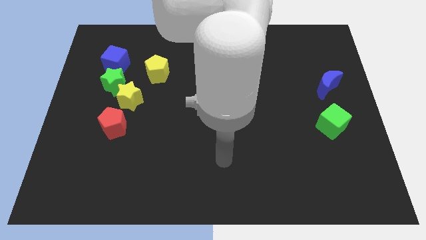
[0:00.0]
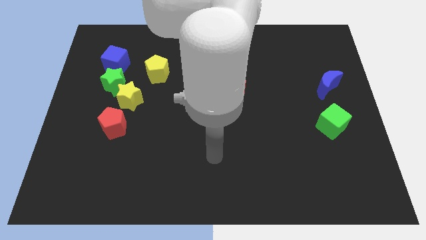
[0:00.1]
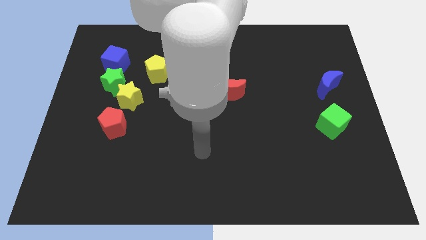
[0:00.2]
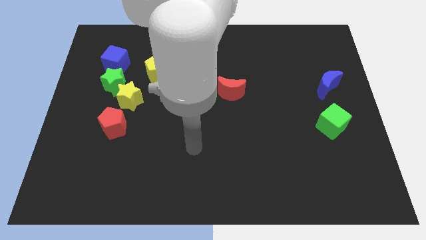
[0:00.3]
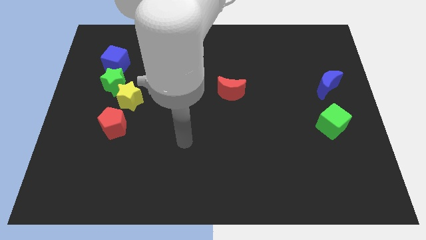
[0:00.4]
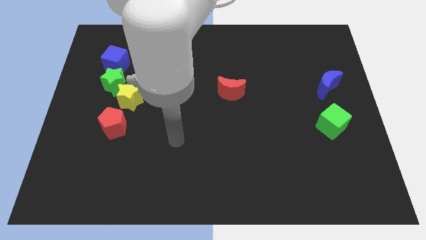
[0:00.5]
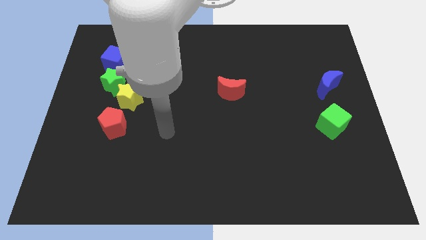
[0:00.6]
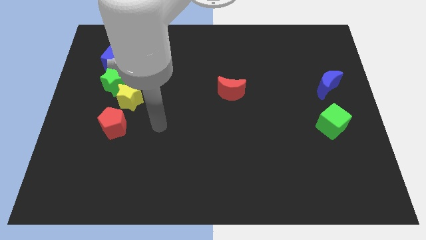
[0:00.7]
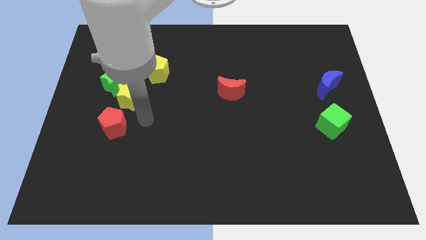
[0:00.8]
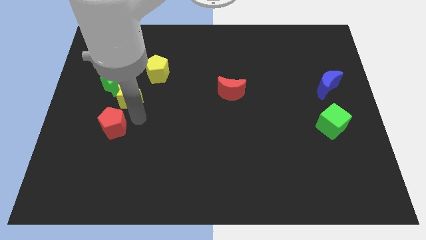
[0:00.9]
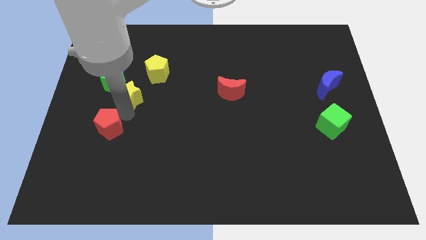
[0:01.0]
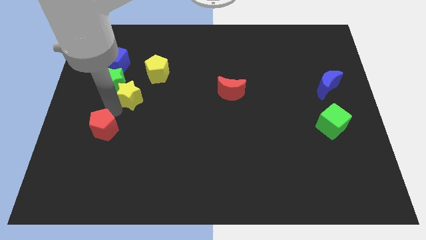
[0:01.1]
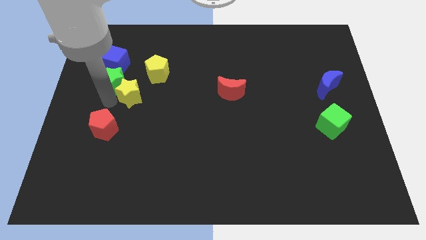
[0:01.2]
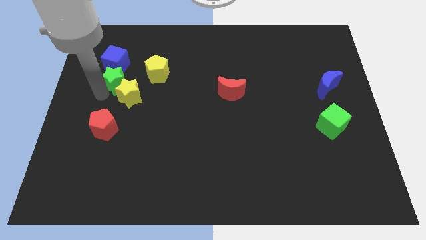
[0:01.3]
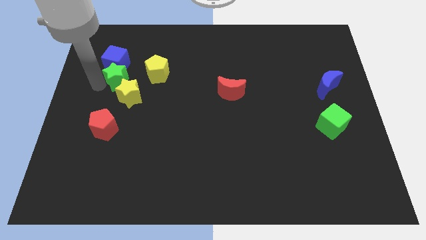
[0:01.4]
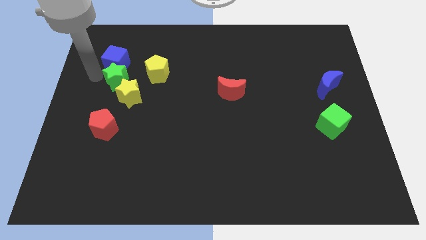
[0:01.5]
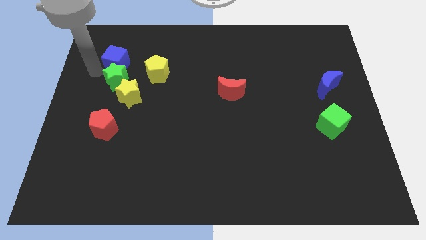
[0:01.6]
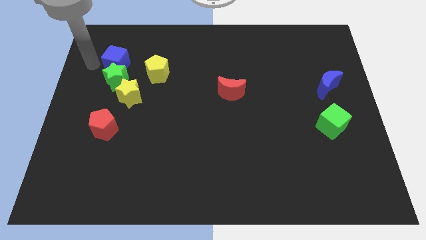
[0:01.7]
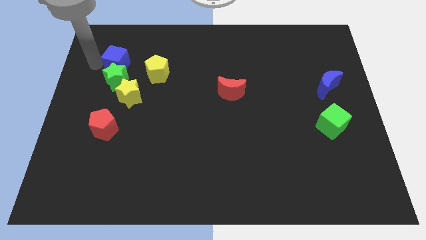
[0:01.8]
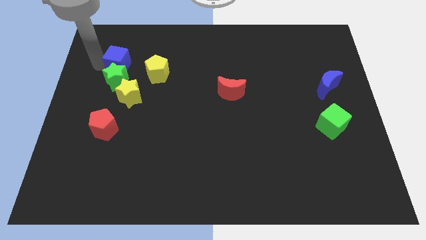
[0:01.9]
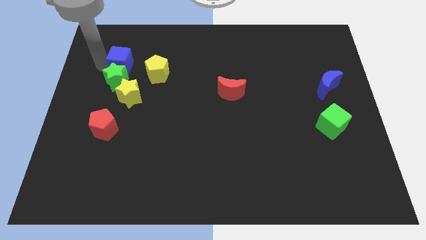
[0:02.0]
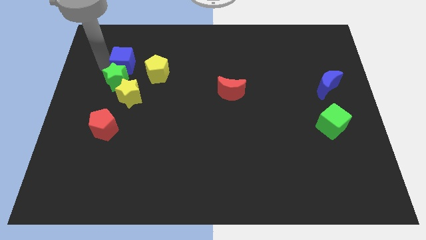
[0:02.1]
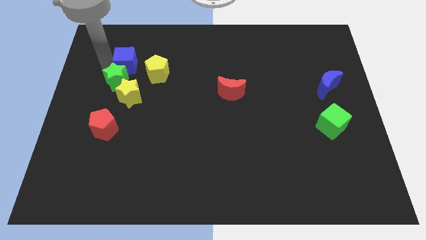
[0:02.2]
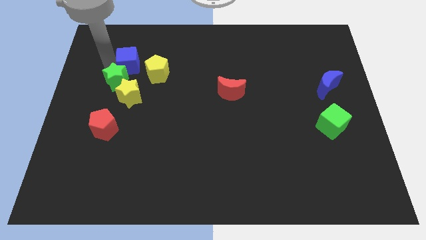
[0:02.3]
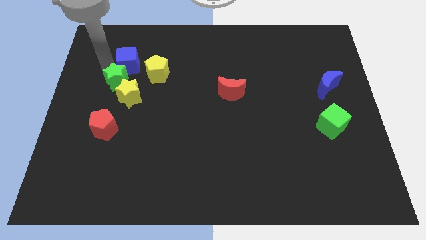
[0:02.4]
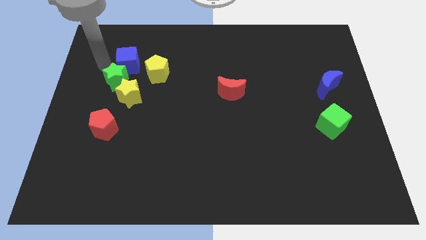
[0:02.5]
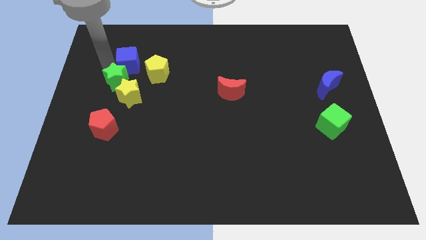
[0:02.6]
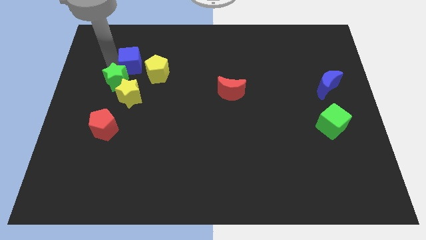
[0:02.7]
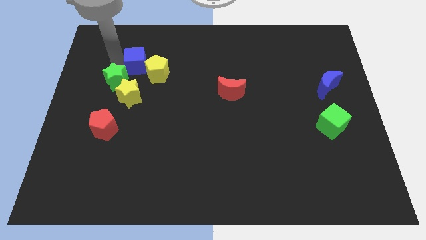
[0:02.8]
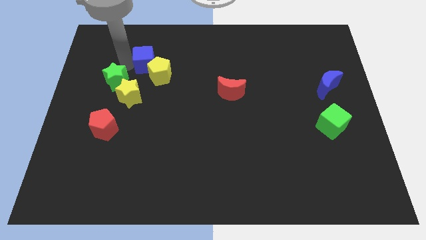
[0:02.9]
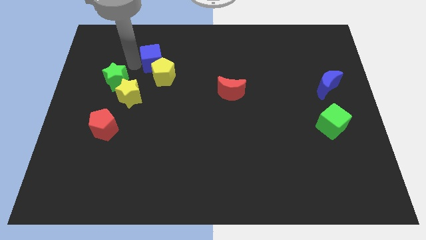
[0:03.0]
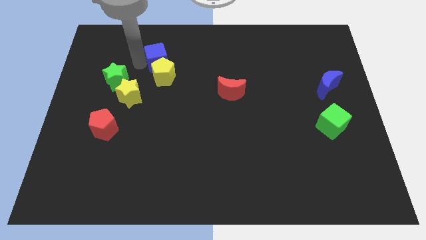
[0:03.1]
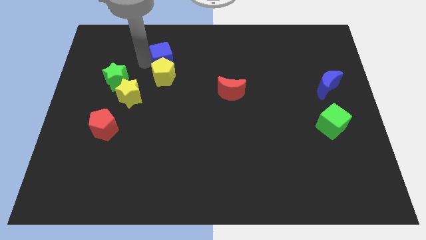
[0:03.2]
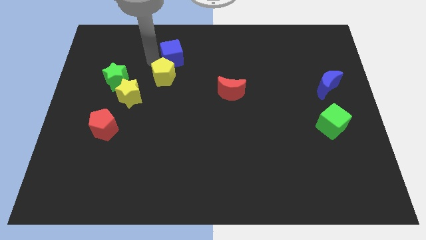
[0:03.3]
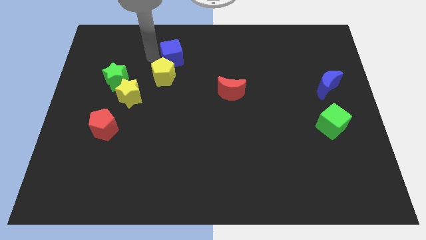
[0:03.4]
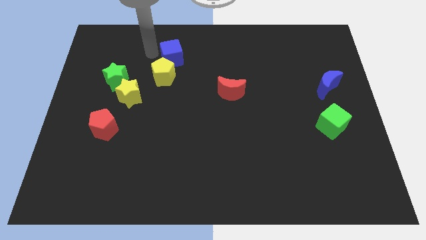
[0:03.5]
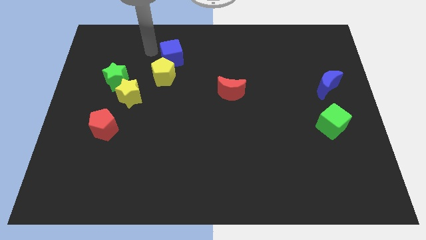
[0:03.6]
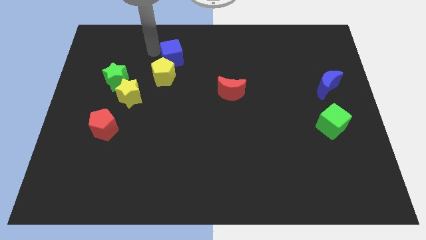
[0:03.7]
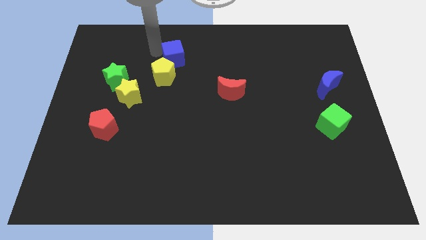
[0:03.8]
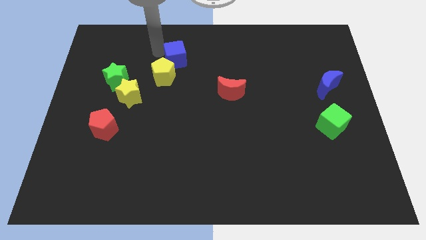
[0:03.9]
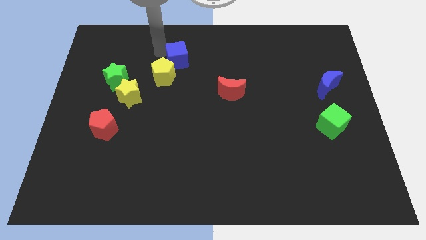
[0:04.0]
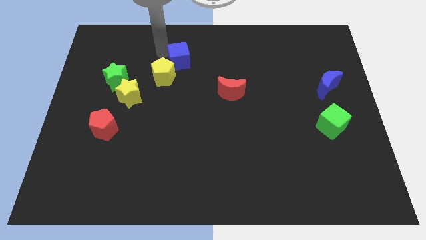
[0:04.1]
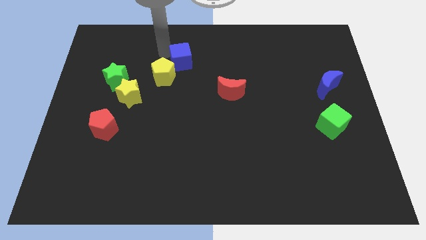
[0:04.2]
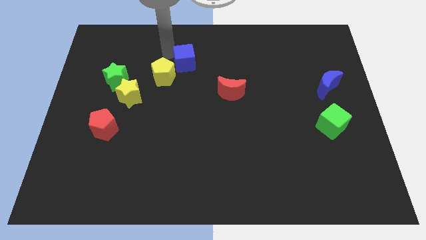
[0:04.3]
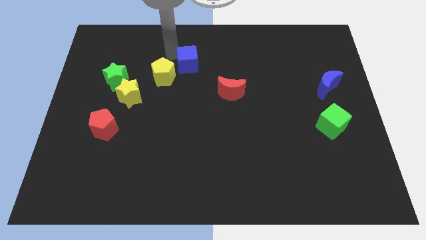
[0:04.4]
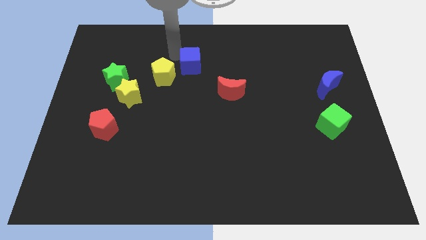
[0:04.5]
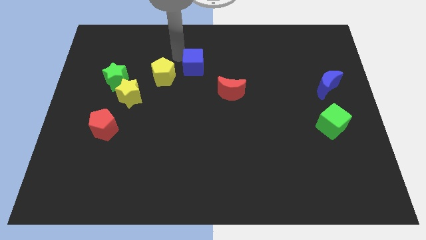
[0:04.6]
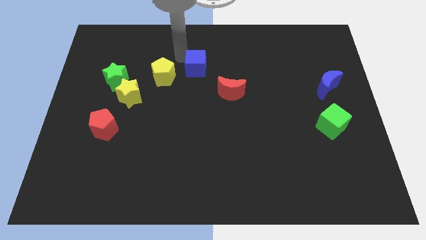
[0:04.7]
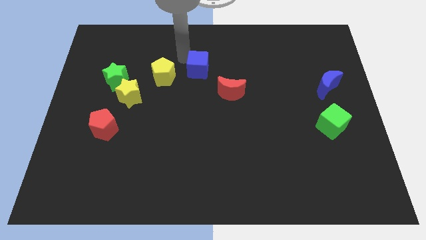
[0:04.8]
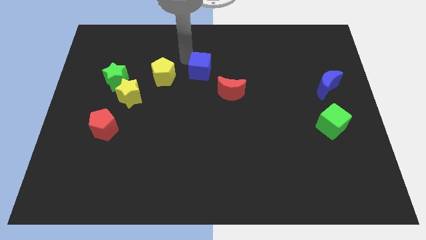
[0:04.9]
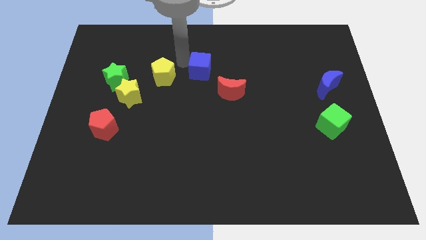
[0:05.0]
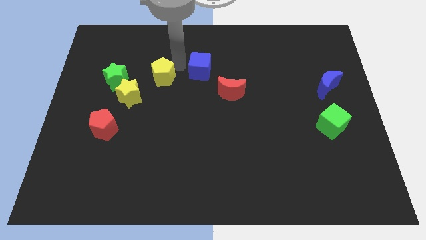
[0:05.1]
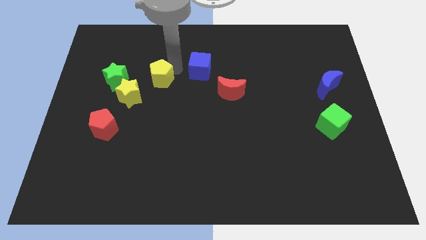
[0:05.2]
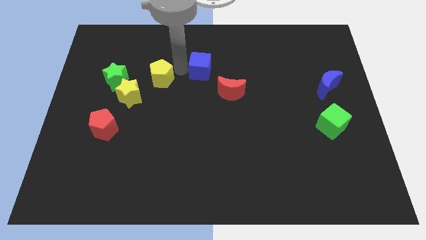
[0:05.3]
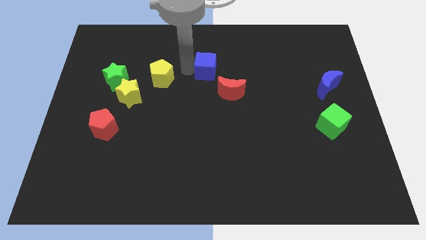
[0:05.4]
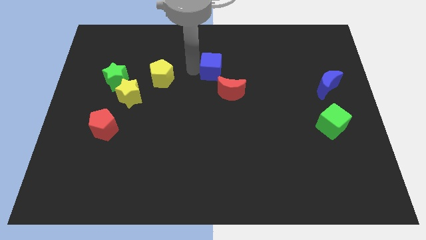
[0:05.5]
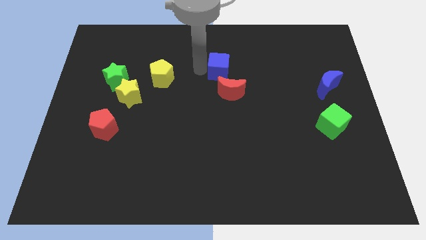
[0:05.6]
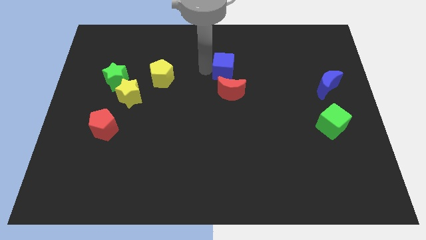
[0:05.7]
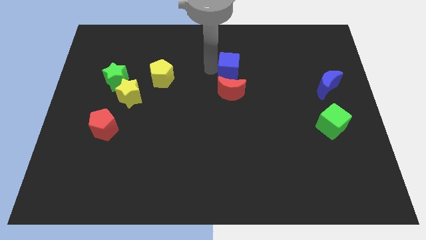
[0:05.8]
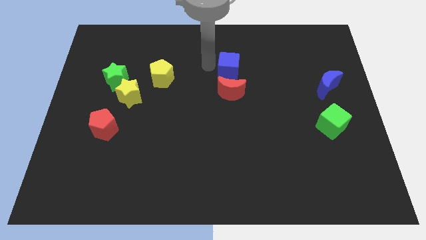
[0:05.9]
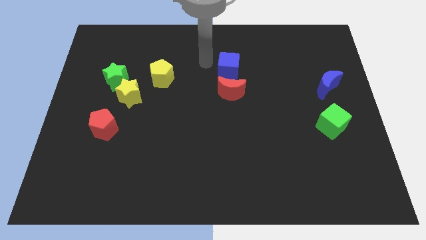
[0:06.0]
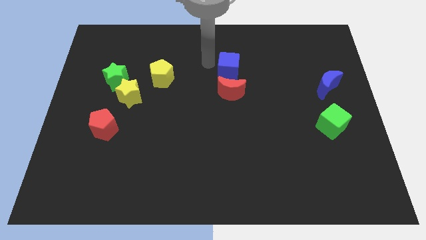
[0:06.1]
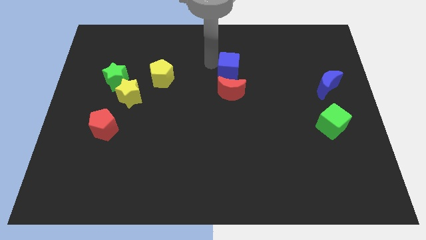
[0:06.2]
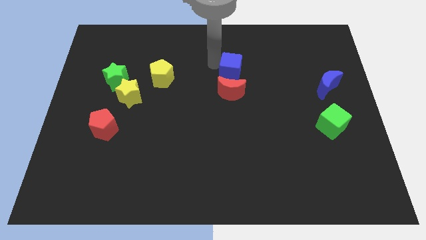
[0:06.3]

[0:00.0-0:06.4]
slide the blue cube to the top right side of the red moon

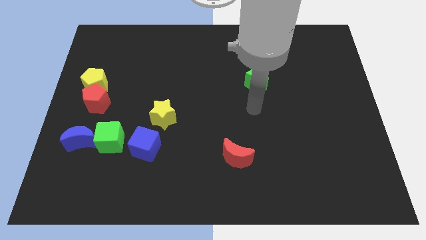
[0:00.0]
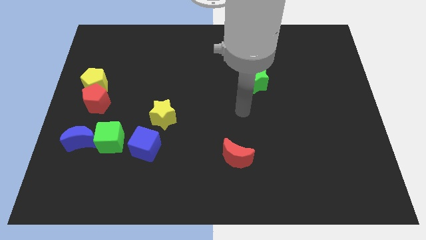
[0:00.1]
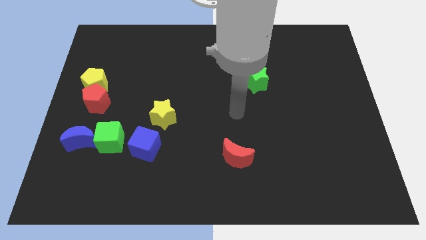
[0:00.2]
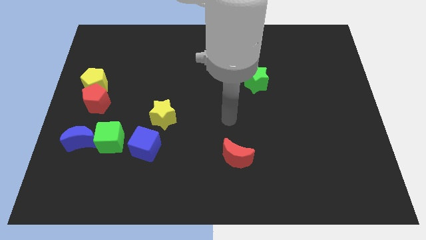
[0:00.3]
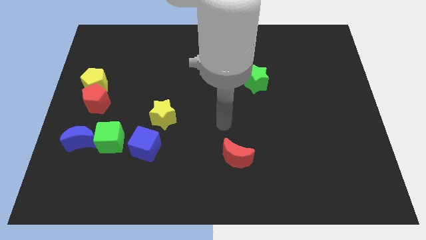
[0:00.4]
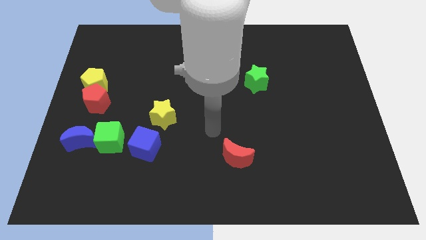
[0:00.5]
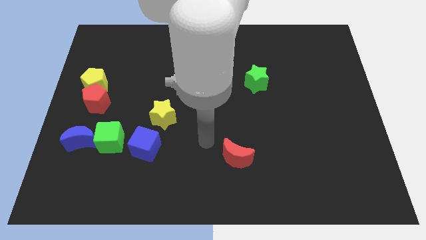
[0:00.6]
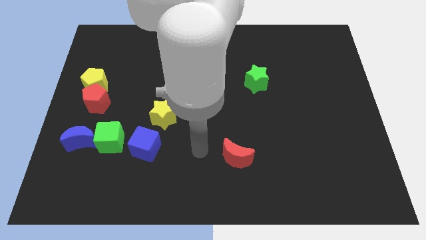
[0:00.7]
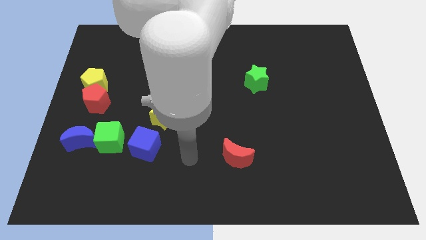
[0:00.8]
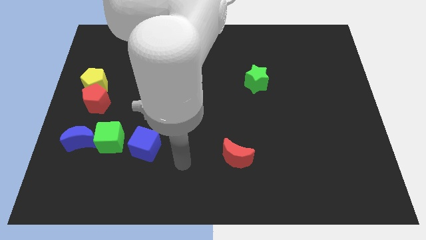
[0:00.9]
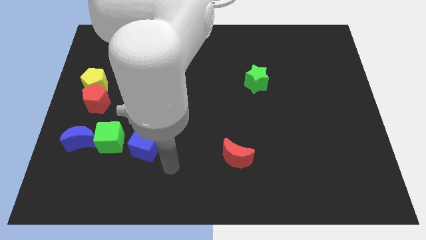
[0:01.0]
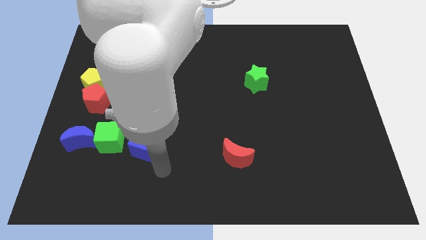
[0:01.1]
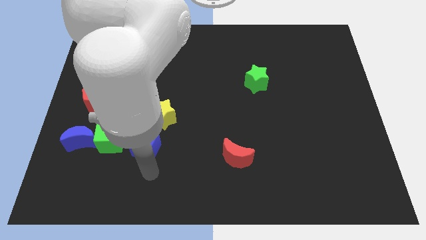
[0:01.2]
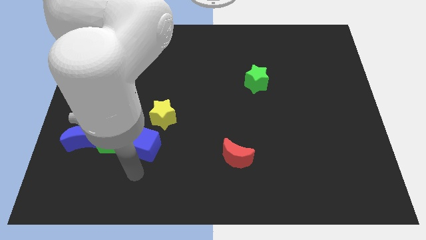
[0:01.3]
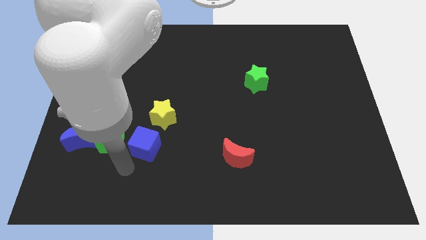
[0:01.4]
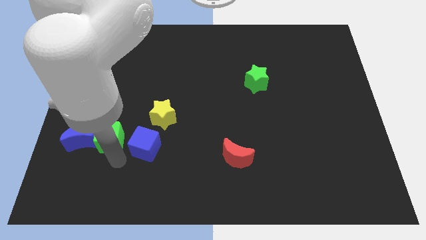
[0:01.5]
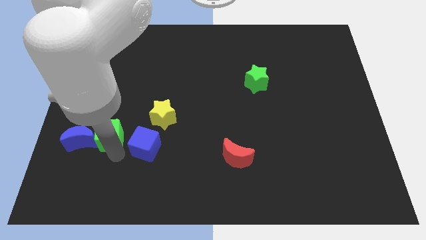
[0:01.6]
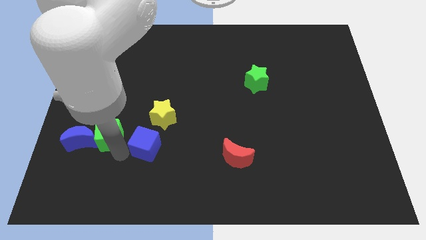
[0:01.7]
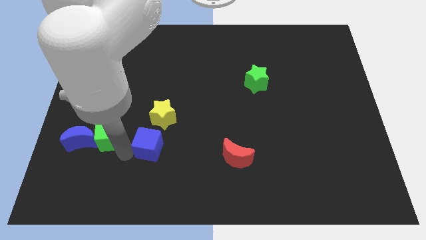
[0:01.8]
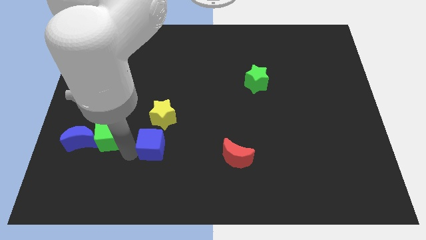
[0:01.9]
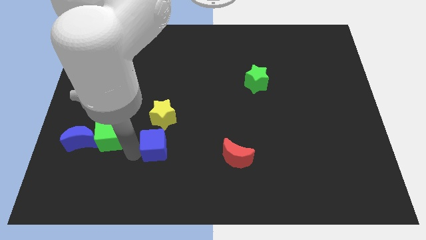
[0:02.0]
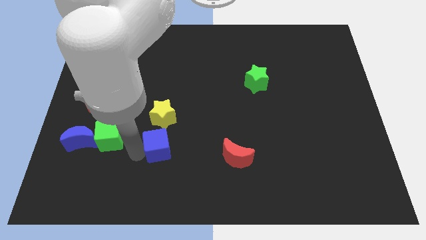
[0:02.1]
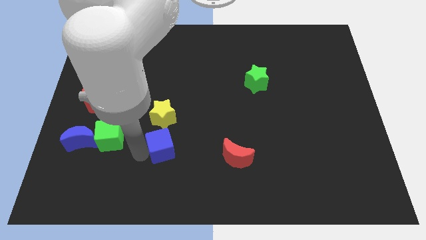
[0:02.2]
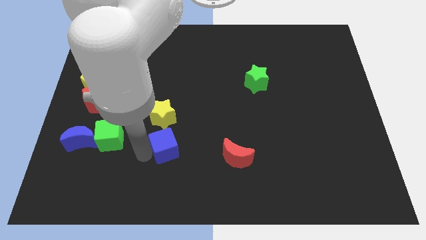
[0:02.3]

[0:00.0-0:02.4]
slide the blue cube to the bottom right of the yellow star
